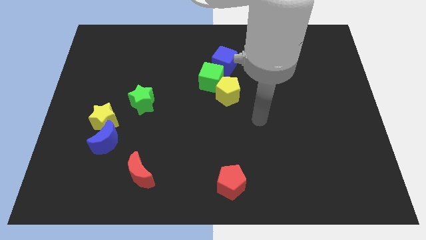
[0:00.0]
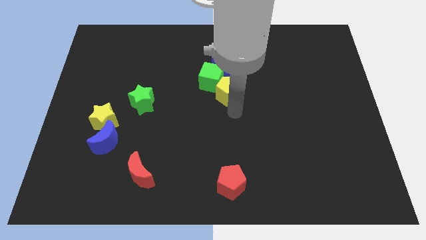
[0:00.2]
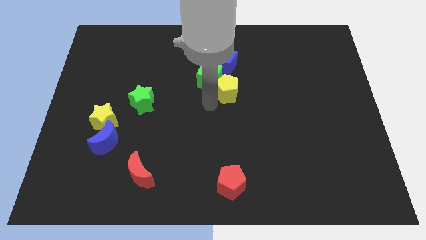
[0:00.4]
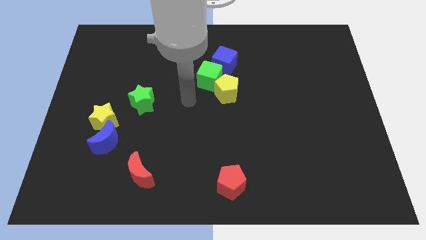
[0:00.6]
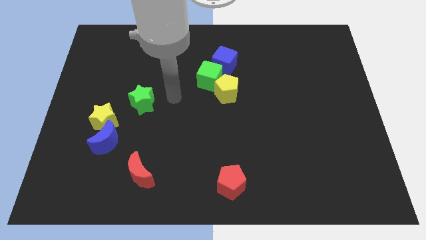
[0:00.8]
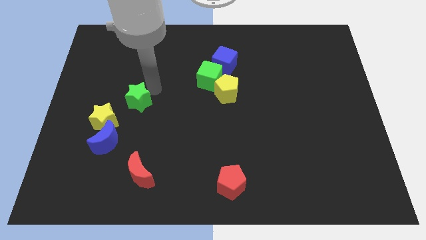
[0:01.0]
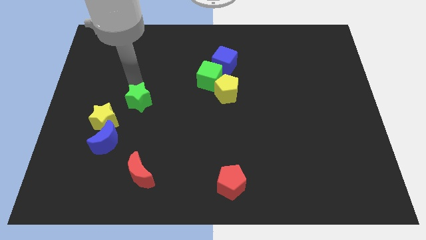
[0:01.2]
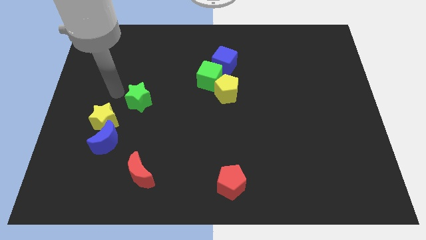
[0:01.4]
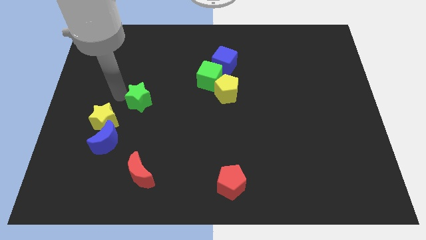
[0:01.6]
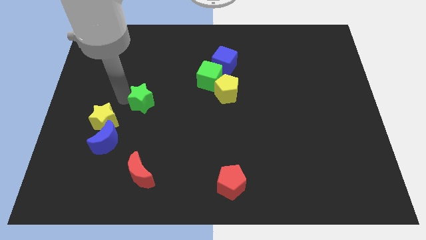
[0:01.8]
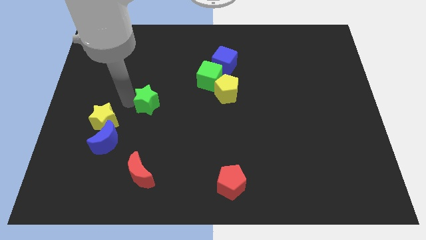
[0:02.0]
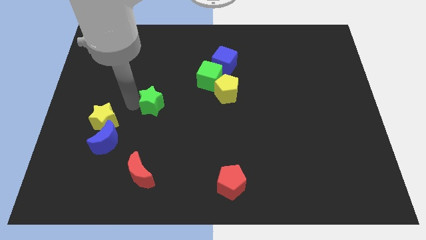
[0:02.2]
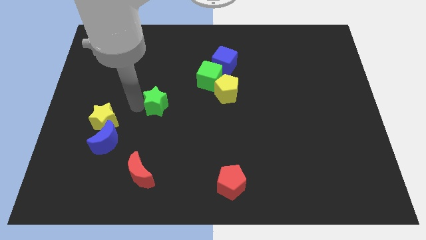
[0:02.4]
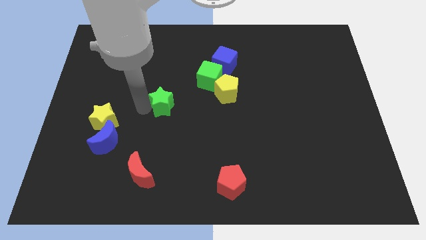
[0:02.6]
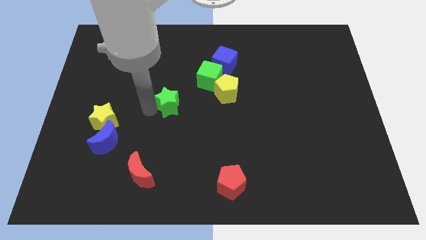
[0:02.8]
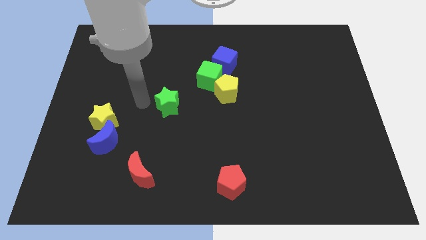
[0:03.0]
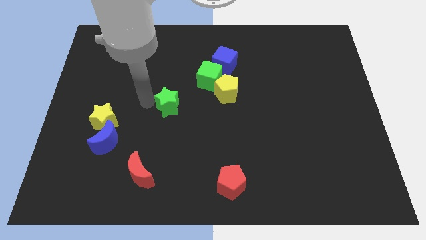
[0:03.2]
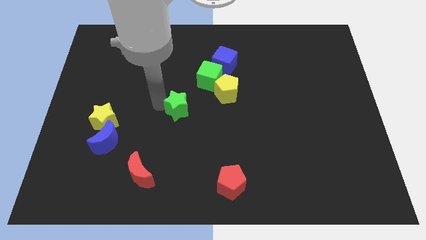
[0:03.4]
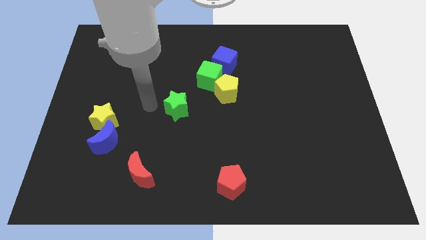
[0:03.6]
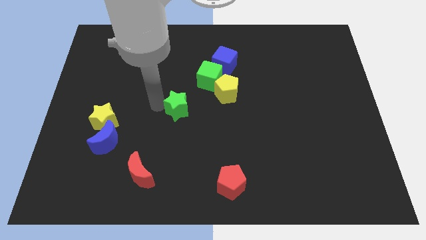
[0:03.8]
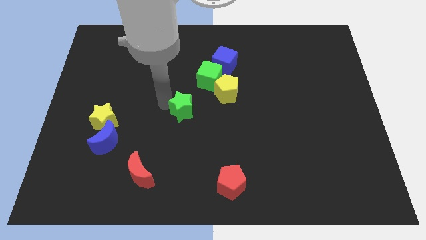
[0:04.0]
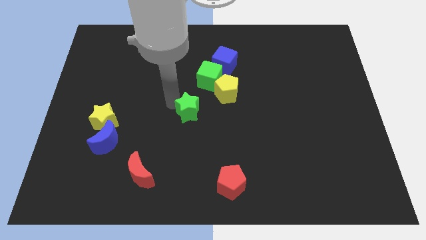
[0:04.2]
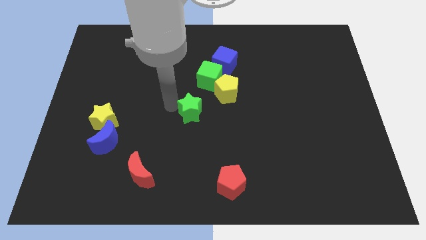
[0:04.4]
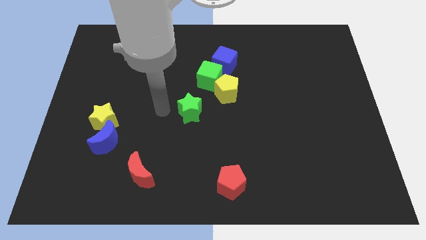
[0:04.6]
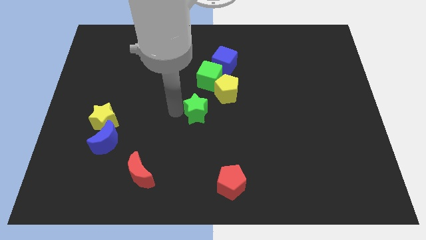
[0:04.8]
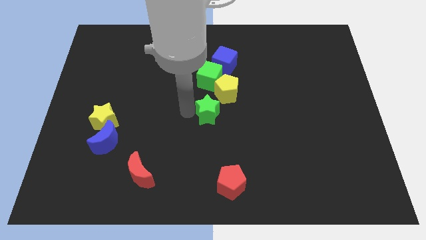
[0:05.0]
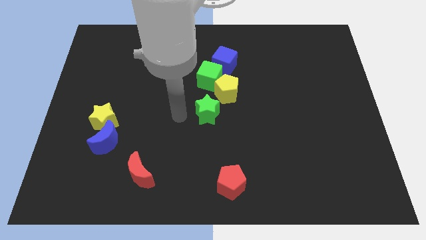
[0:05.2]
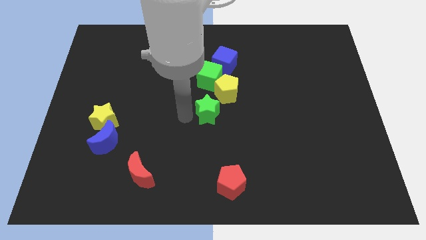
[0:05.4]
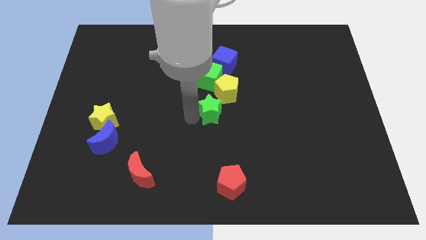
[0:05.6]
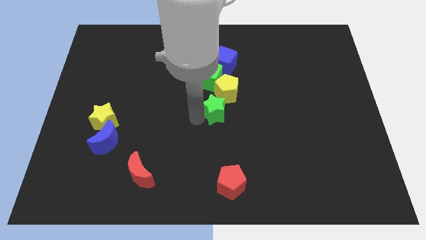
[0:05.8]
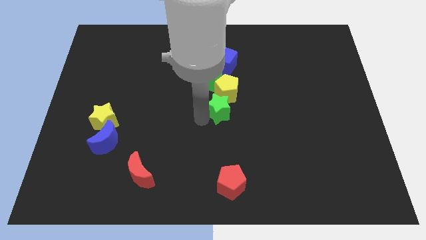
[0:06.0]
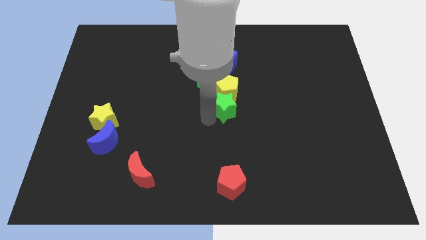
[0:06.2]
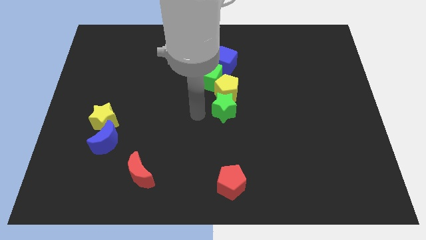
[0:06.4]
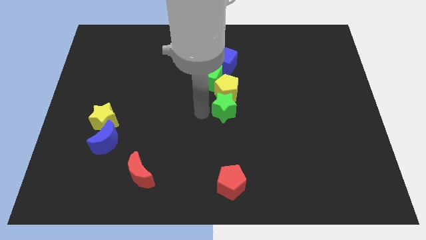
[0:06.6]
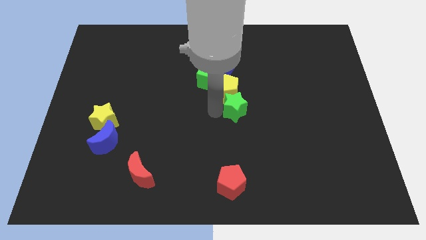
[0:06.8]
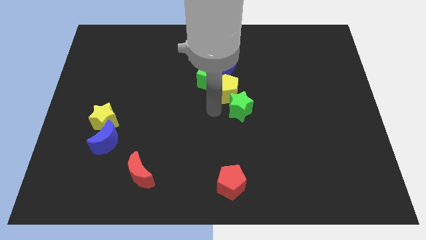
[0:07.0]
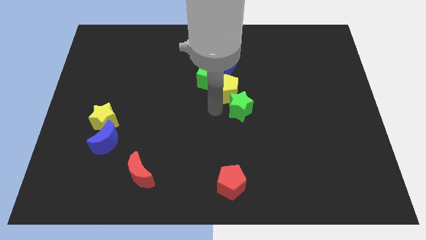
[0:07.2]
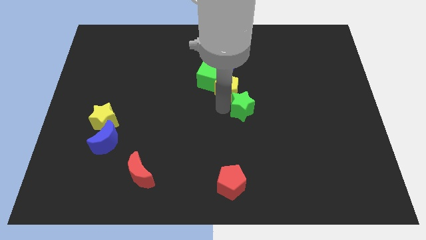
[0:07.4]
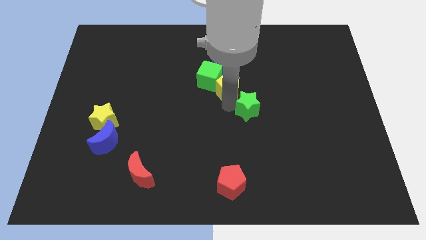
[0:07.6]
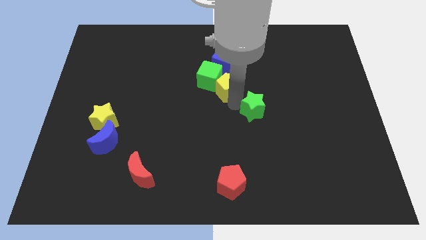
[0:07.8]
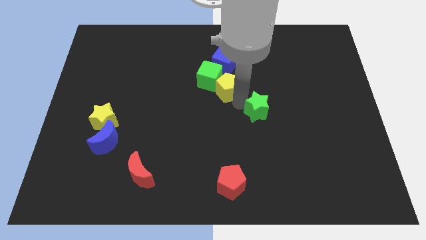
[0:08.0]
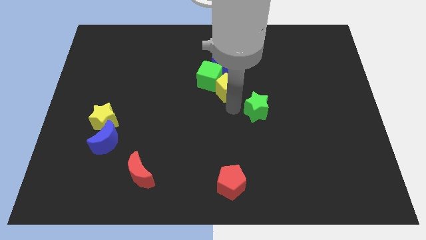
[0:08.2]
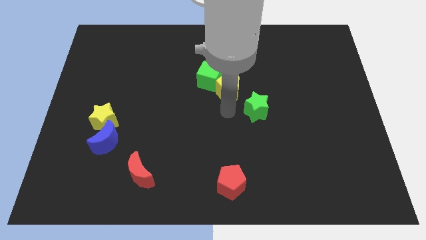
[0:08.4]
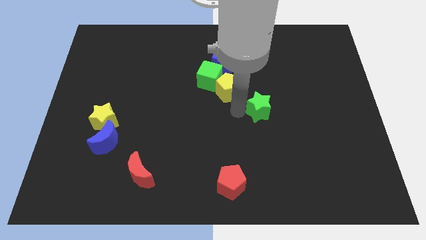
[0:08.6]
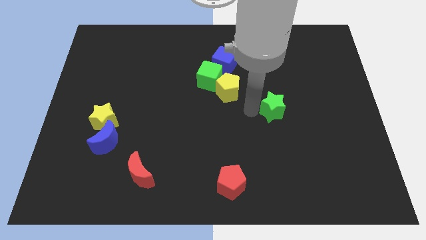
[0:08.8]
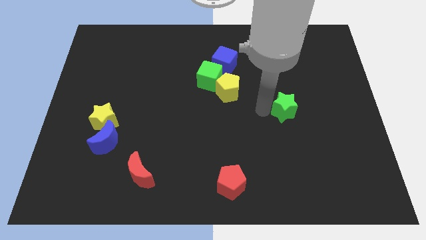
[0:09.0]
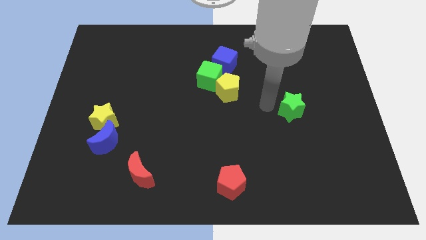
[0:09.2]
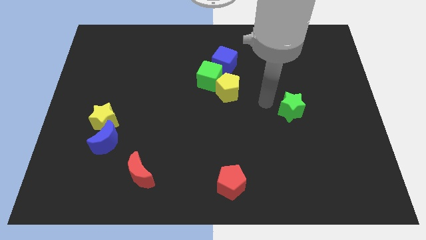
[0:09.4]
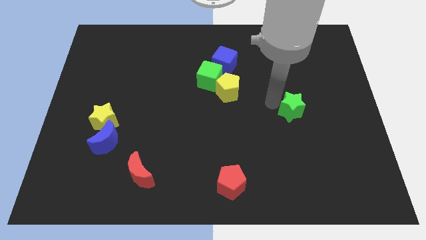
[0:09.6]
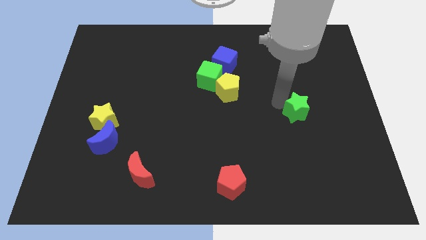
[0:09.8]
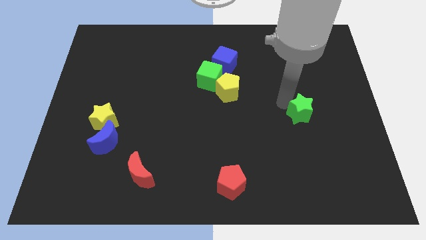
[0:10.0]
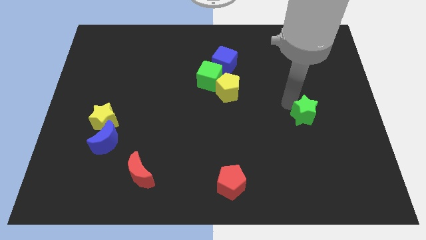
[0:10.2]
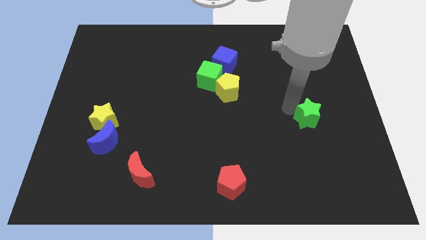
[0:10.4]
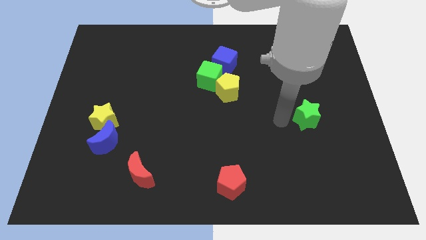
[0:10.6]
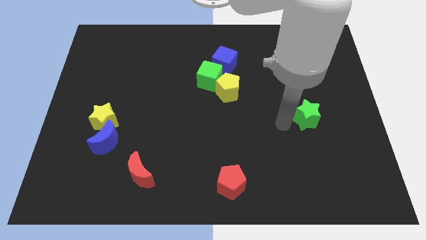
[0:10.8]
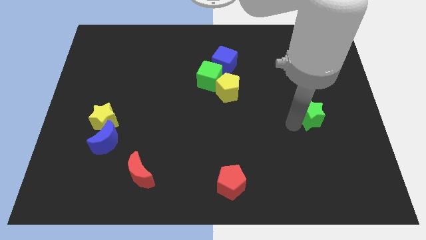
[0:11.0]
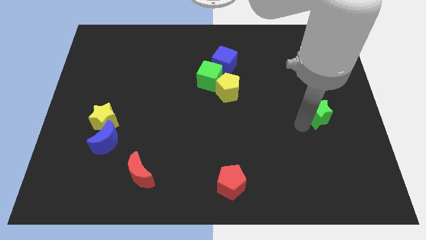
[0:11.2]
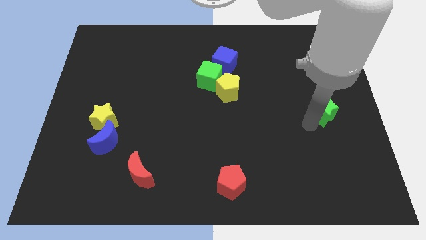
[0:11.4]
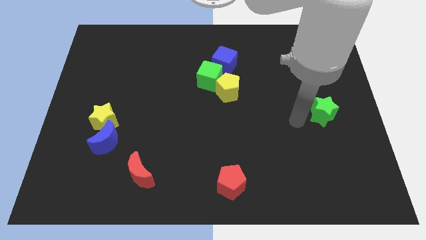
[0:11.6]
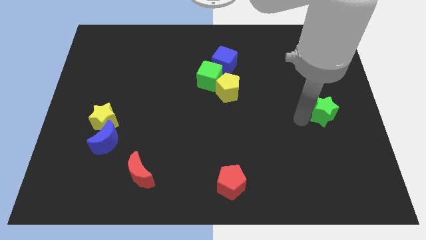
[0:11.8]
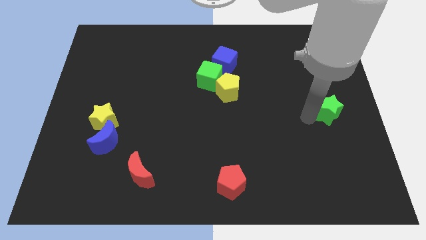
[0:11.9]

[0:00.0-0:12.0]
move the green star to the right side of the board

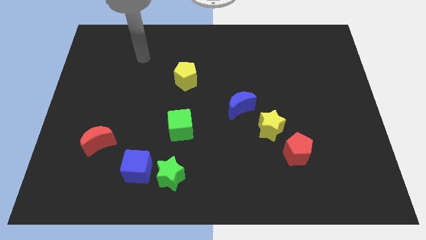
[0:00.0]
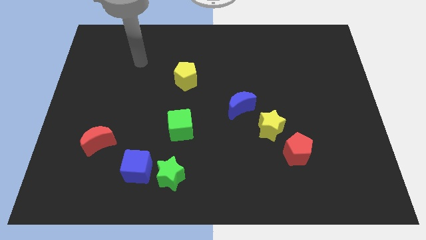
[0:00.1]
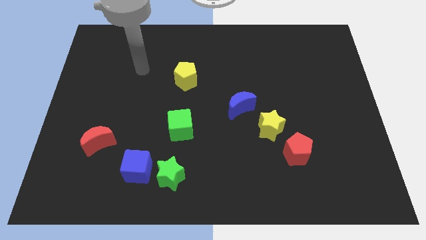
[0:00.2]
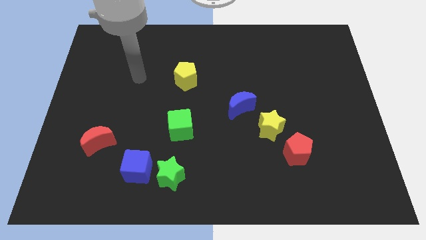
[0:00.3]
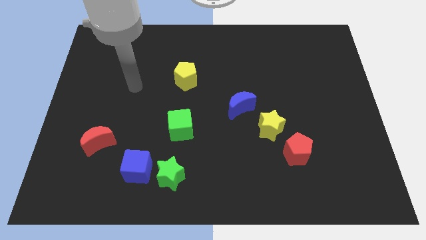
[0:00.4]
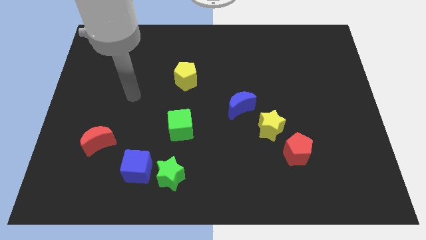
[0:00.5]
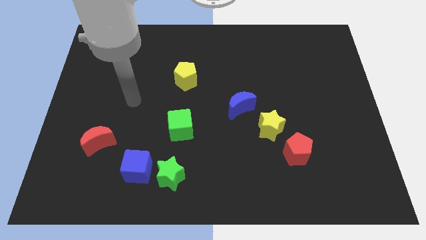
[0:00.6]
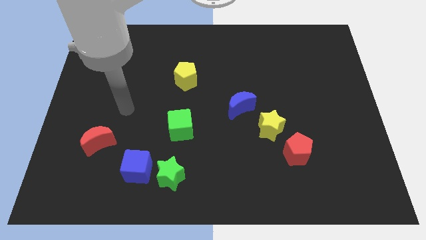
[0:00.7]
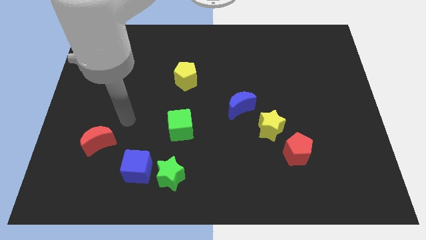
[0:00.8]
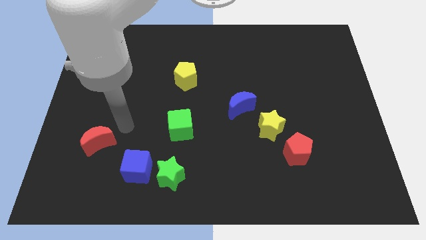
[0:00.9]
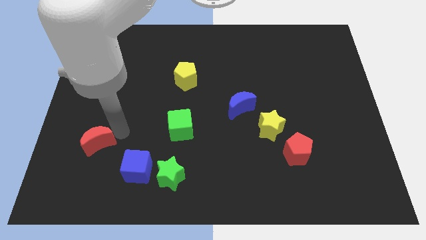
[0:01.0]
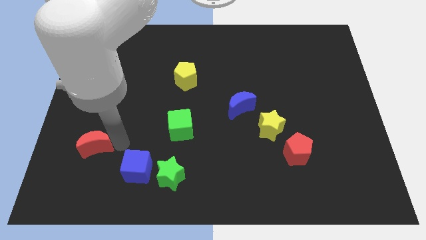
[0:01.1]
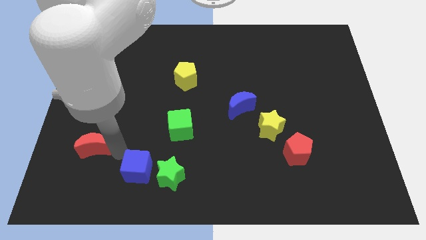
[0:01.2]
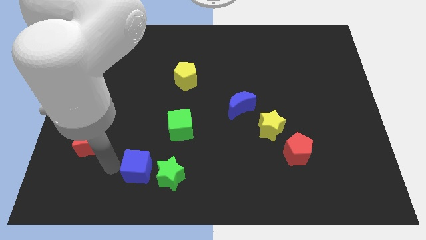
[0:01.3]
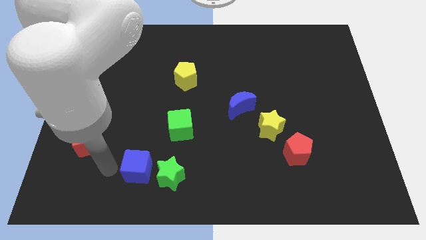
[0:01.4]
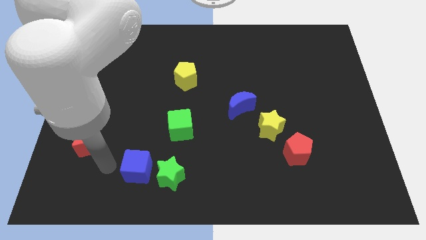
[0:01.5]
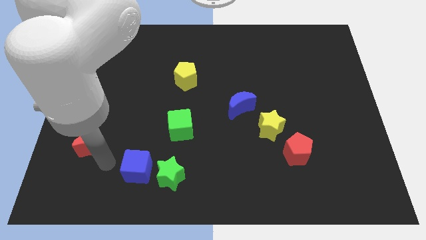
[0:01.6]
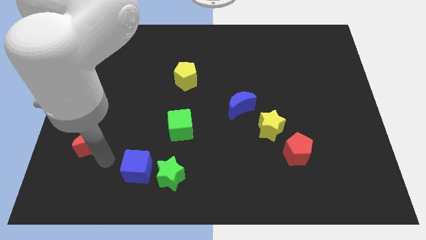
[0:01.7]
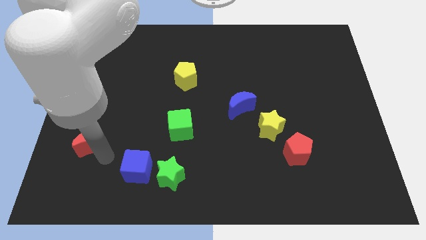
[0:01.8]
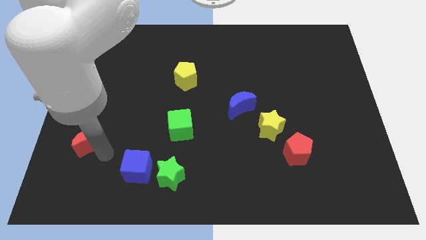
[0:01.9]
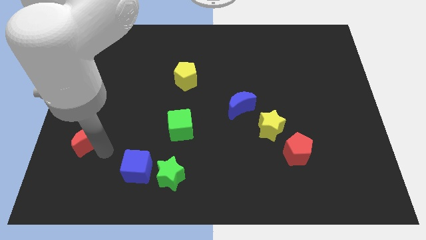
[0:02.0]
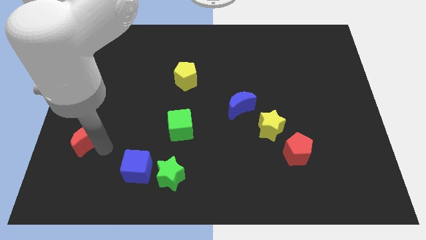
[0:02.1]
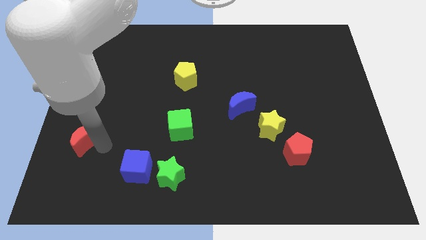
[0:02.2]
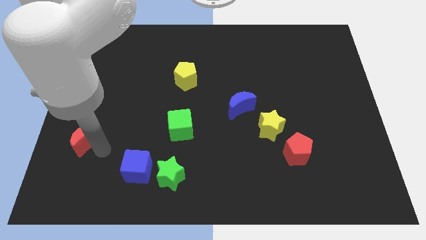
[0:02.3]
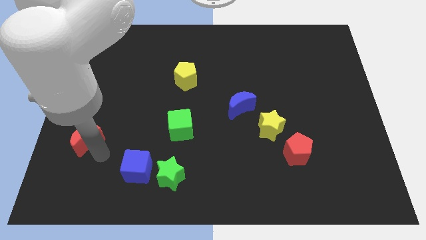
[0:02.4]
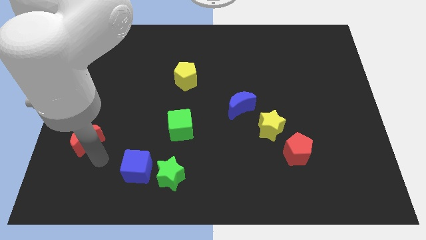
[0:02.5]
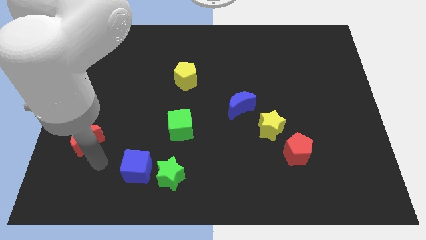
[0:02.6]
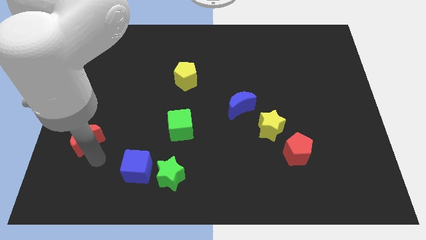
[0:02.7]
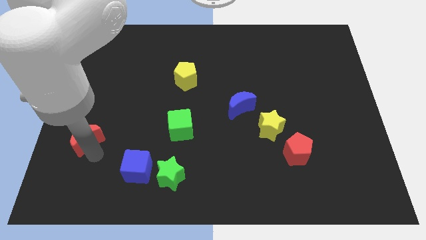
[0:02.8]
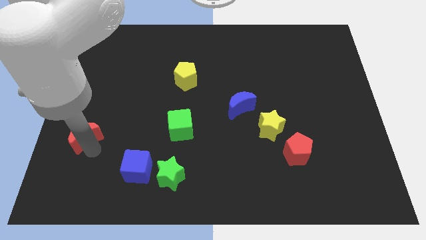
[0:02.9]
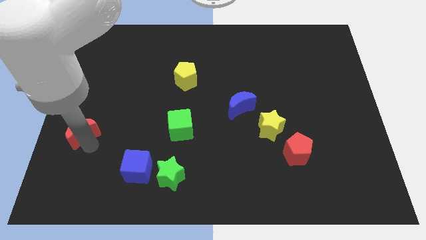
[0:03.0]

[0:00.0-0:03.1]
put the red moon to the center left
